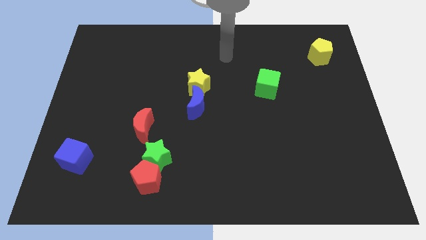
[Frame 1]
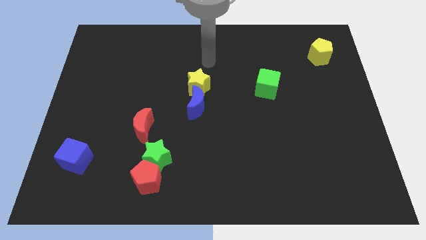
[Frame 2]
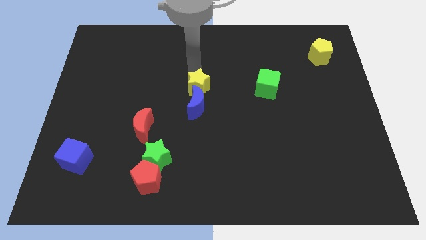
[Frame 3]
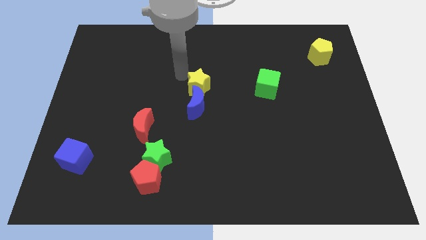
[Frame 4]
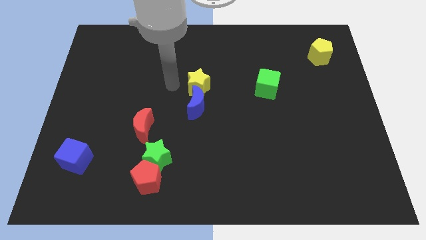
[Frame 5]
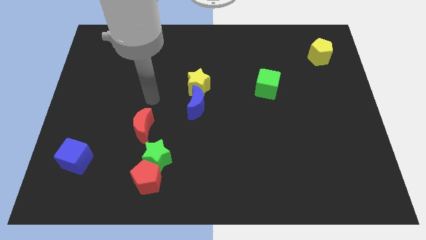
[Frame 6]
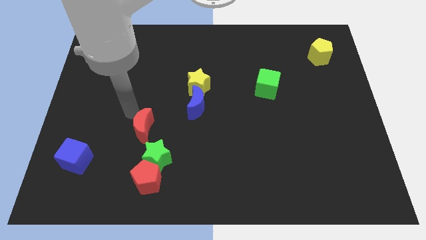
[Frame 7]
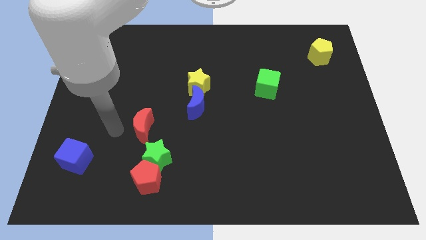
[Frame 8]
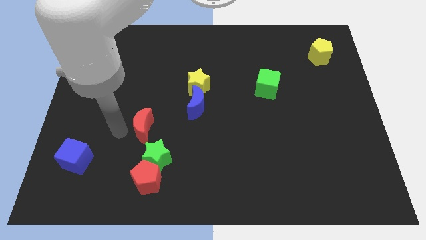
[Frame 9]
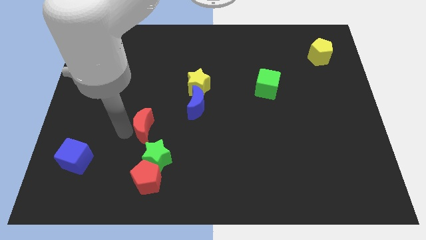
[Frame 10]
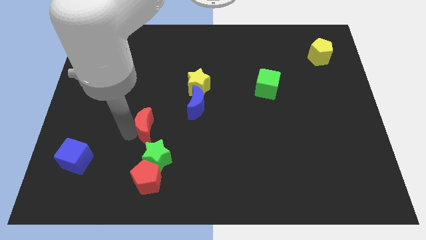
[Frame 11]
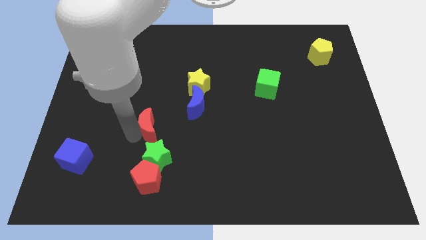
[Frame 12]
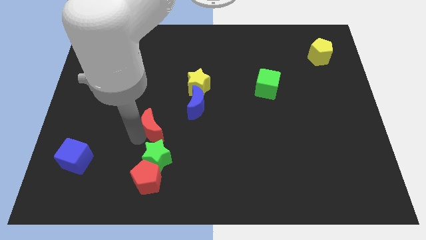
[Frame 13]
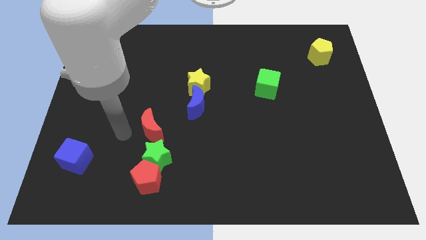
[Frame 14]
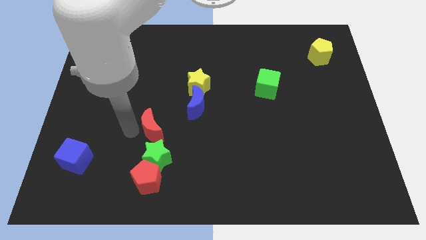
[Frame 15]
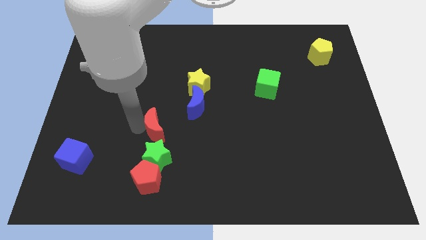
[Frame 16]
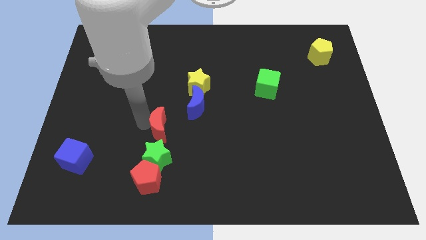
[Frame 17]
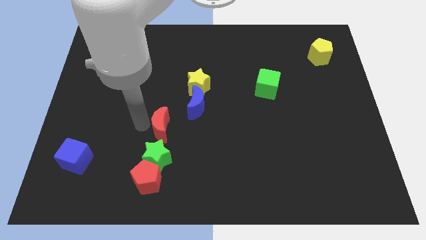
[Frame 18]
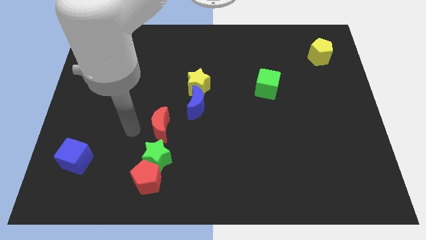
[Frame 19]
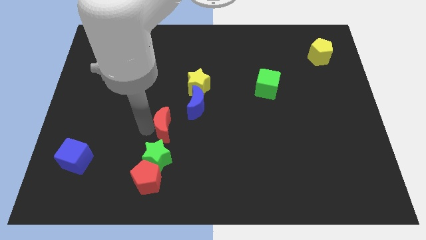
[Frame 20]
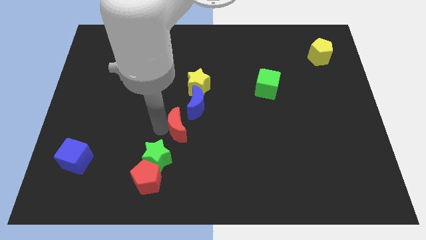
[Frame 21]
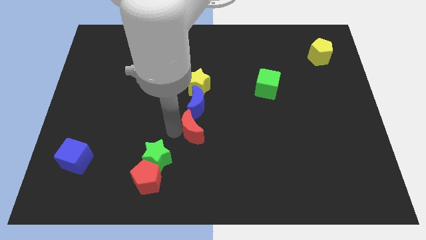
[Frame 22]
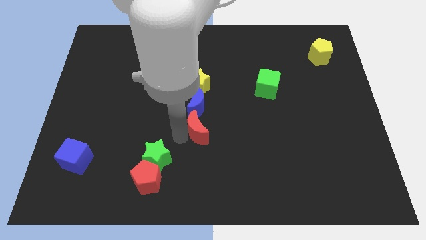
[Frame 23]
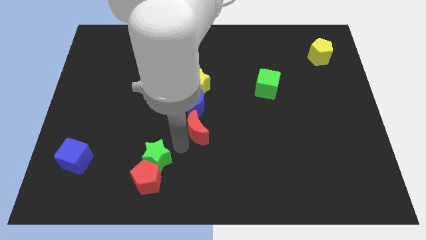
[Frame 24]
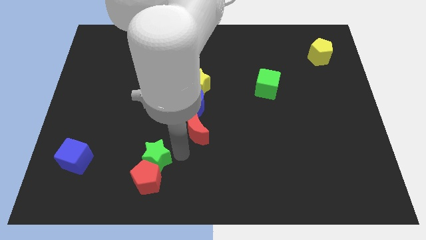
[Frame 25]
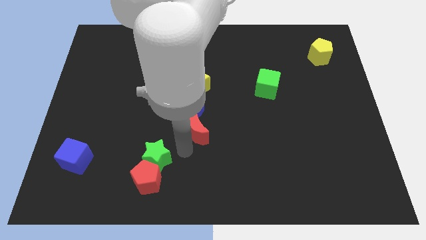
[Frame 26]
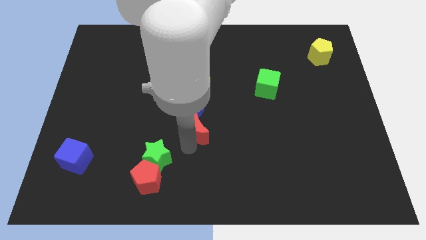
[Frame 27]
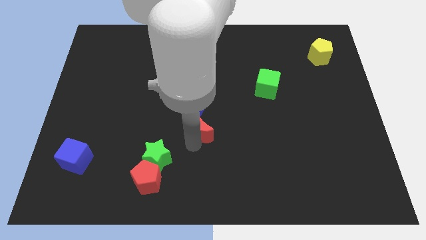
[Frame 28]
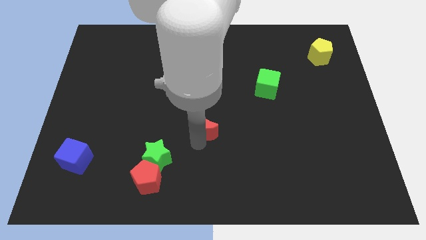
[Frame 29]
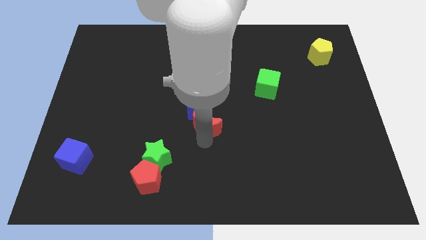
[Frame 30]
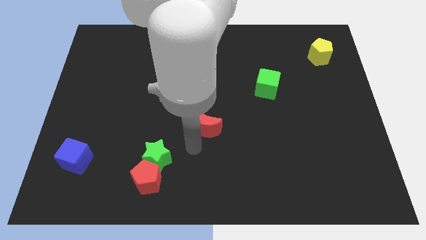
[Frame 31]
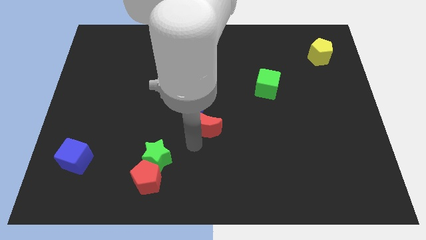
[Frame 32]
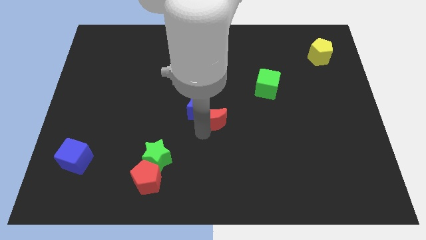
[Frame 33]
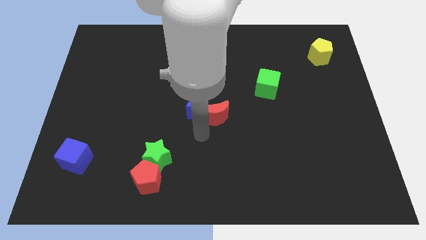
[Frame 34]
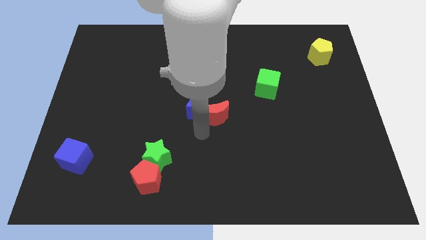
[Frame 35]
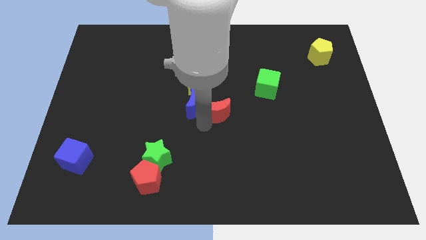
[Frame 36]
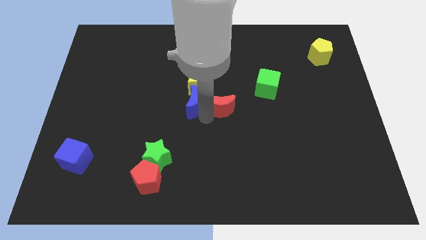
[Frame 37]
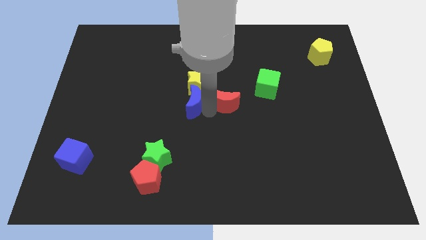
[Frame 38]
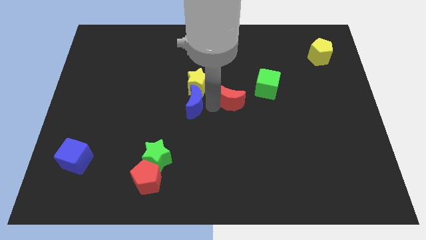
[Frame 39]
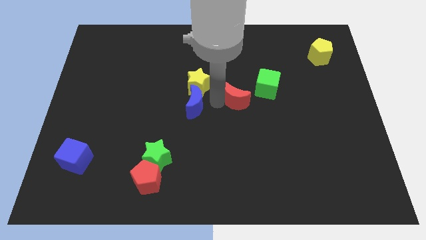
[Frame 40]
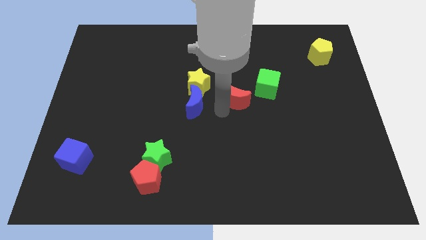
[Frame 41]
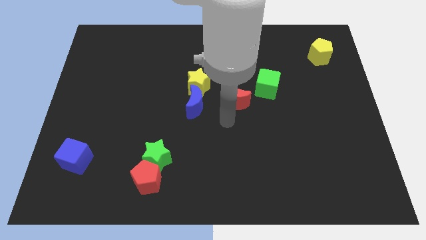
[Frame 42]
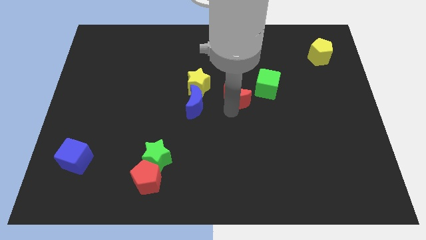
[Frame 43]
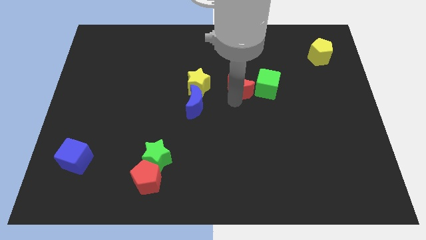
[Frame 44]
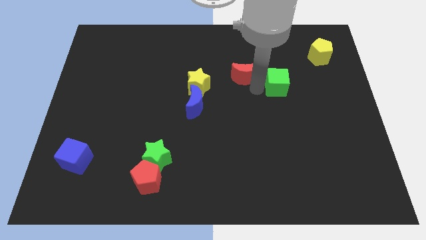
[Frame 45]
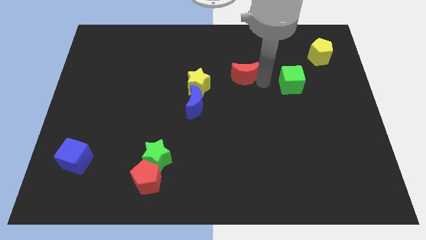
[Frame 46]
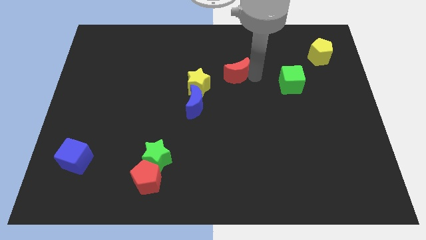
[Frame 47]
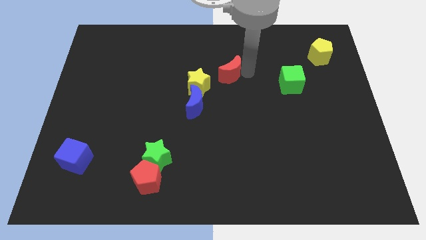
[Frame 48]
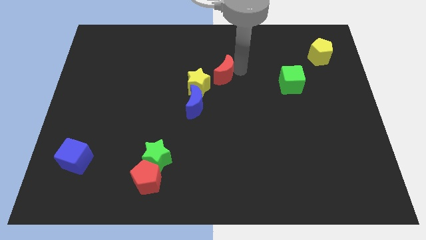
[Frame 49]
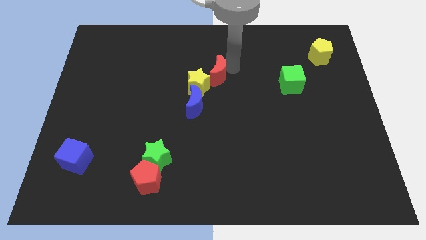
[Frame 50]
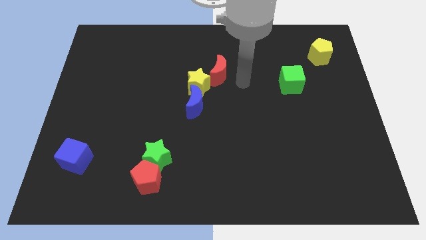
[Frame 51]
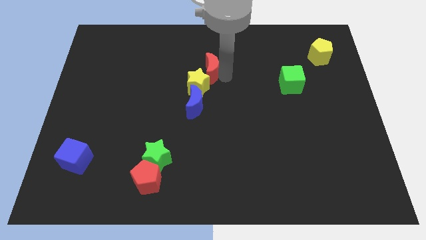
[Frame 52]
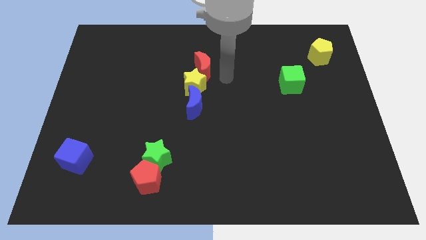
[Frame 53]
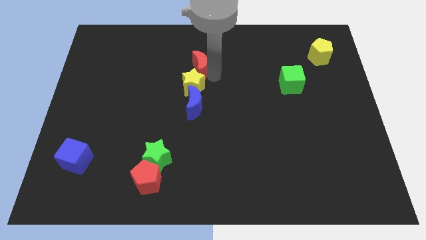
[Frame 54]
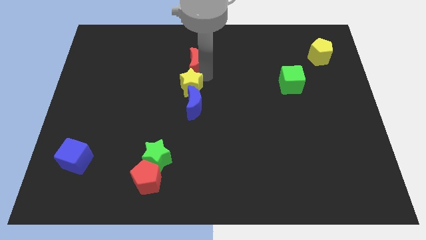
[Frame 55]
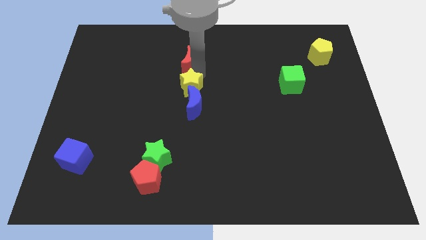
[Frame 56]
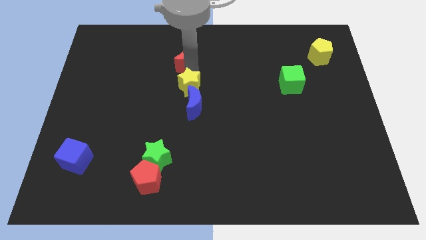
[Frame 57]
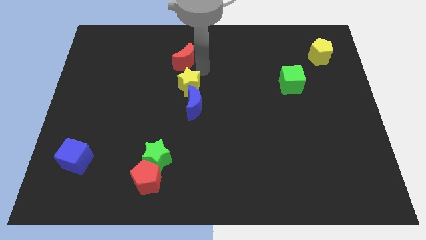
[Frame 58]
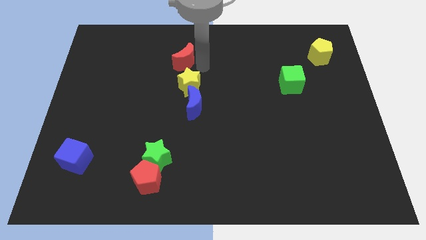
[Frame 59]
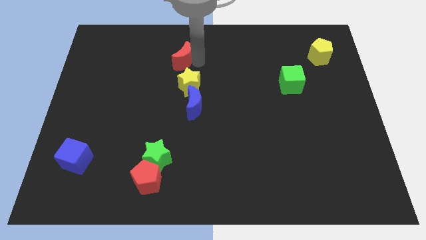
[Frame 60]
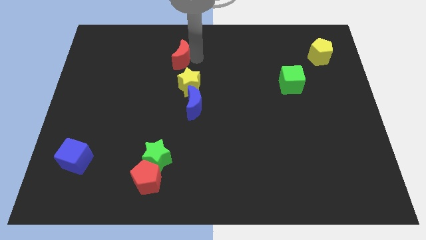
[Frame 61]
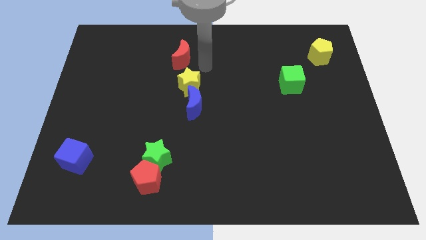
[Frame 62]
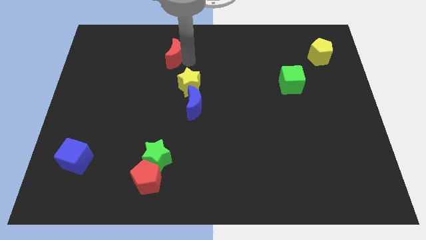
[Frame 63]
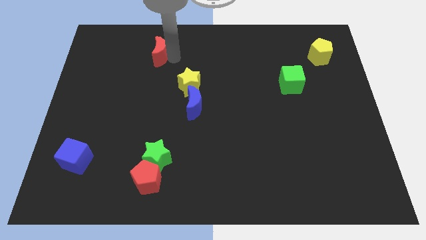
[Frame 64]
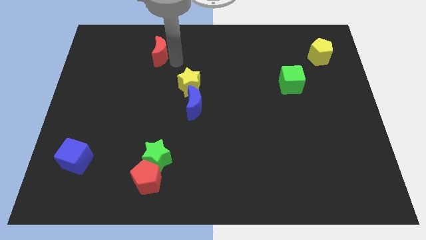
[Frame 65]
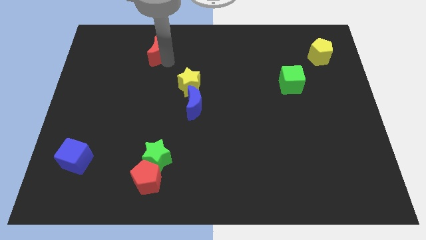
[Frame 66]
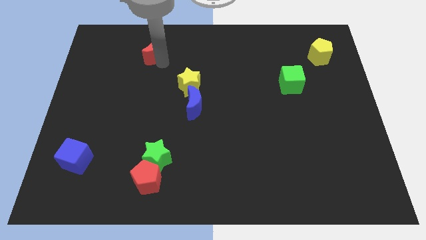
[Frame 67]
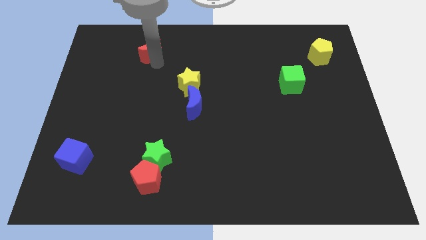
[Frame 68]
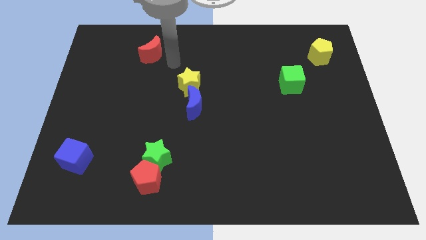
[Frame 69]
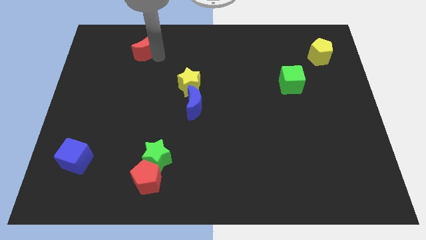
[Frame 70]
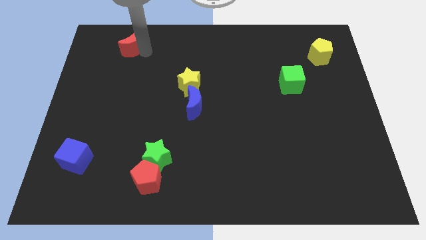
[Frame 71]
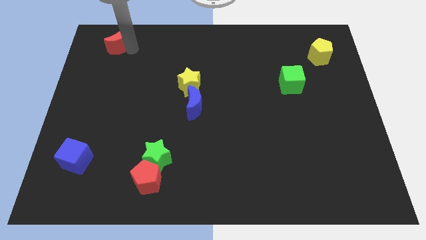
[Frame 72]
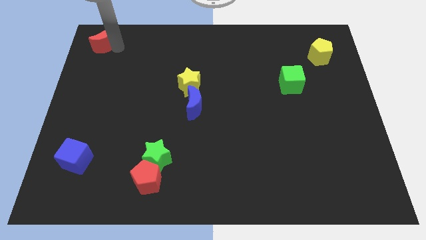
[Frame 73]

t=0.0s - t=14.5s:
put the red moon to the top left corner
